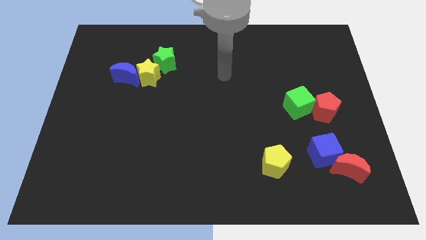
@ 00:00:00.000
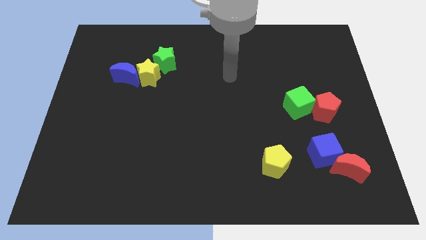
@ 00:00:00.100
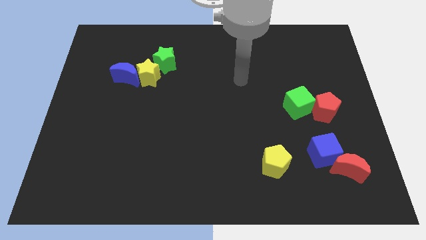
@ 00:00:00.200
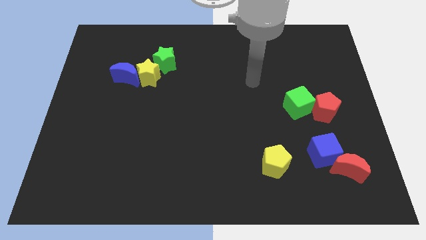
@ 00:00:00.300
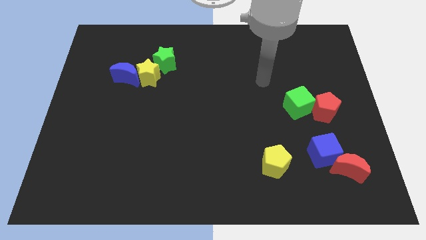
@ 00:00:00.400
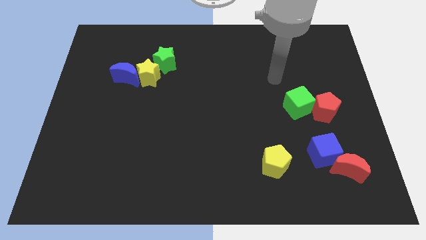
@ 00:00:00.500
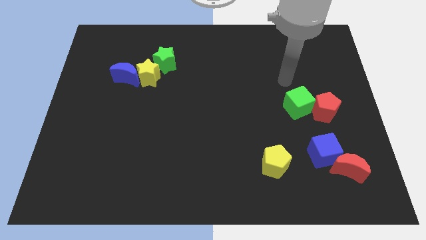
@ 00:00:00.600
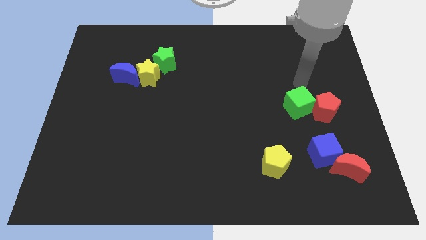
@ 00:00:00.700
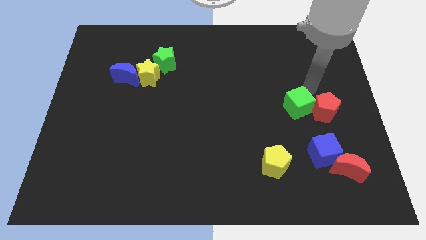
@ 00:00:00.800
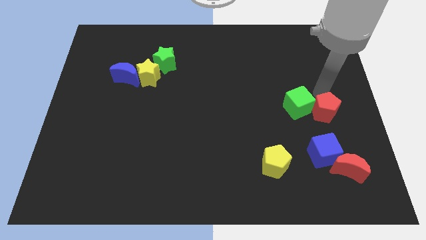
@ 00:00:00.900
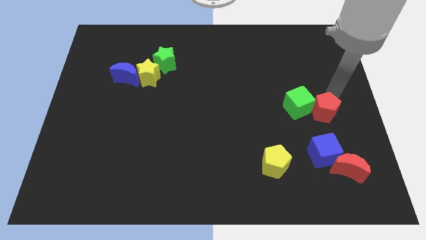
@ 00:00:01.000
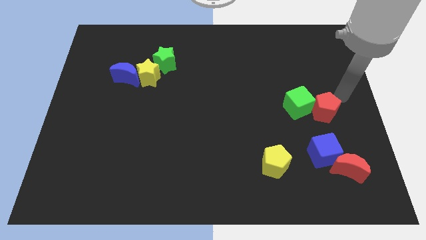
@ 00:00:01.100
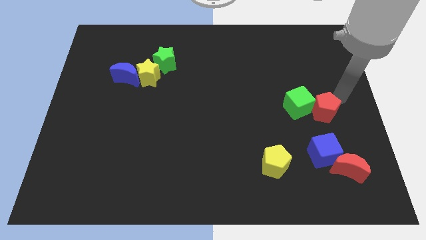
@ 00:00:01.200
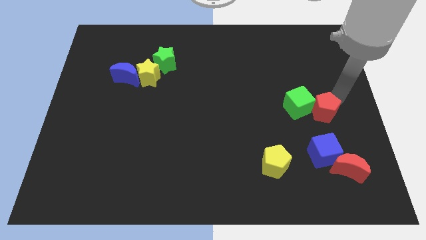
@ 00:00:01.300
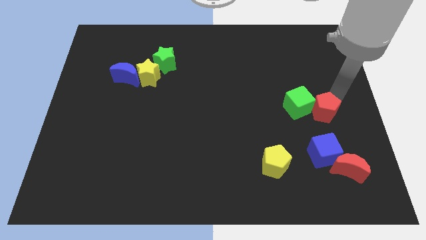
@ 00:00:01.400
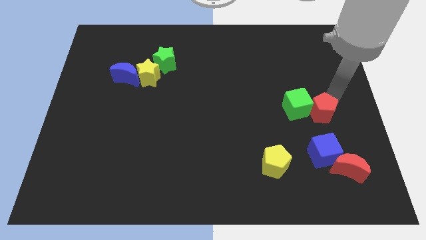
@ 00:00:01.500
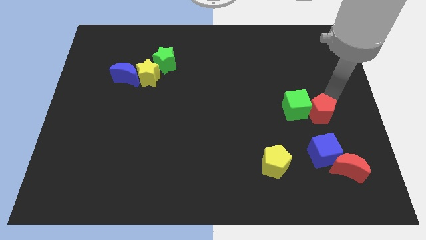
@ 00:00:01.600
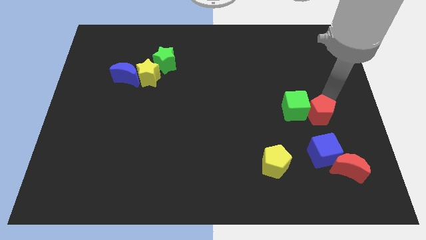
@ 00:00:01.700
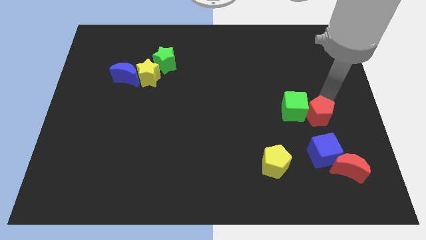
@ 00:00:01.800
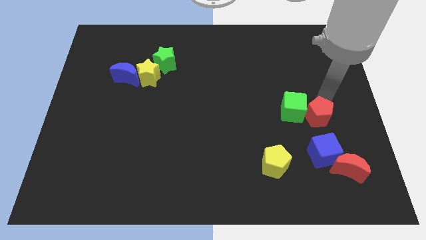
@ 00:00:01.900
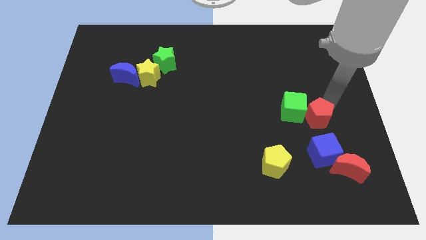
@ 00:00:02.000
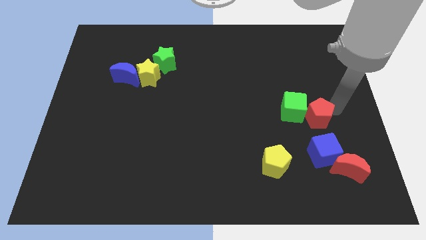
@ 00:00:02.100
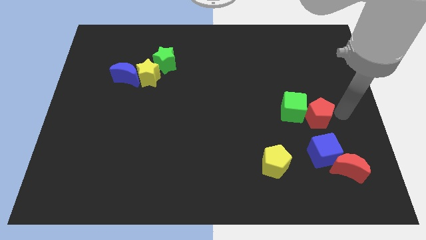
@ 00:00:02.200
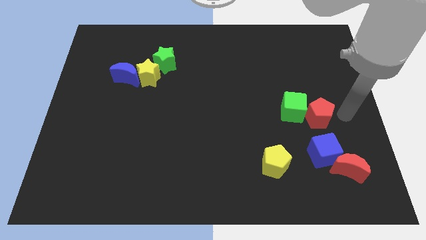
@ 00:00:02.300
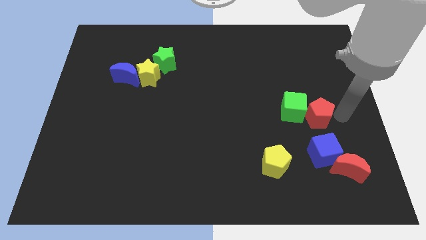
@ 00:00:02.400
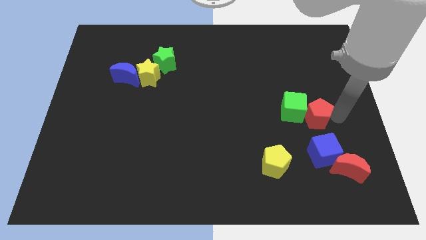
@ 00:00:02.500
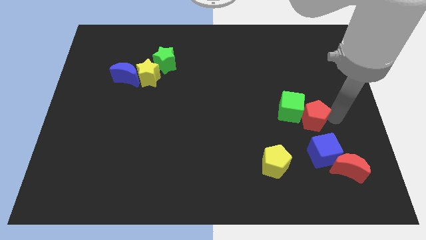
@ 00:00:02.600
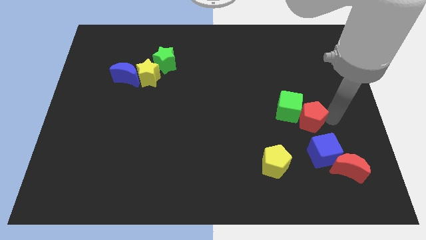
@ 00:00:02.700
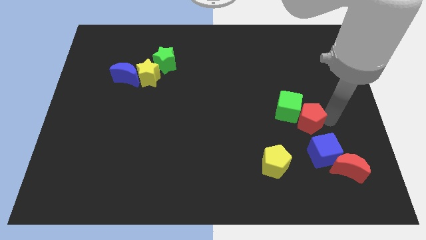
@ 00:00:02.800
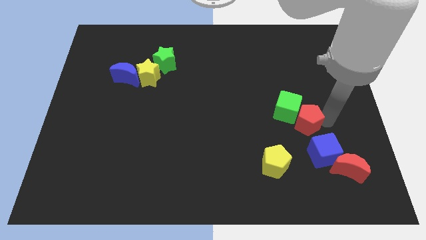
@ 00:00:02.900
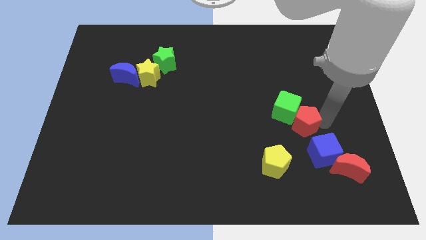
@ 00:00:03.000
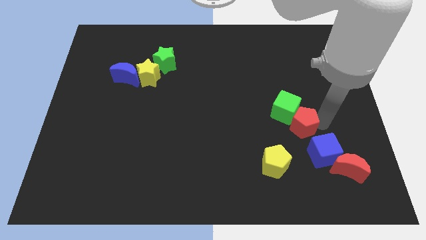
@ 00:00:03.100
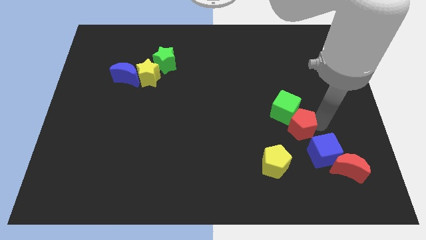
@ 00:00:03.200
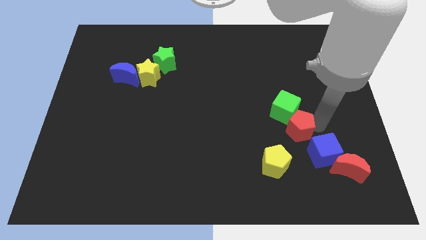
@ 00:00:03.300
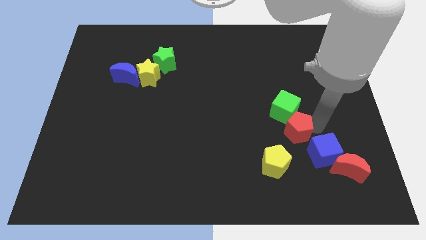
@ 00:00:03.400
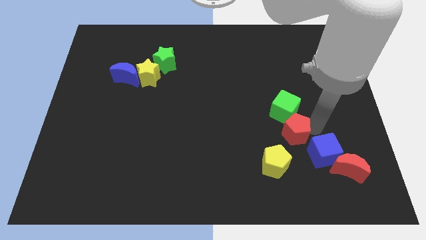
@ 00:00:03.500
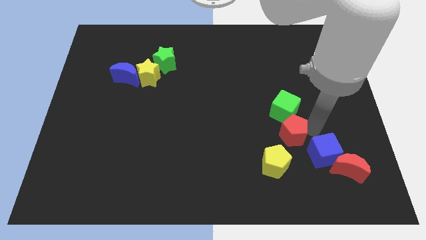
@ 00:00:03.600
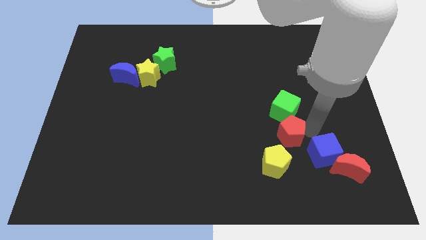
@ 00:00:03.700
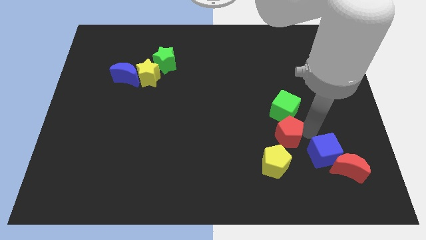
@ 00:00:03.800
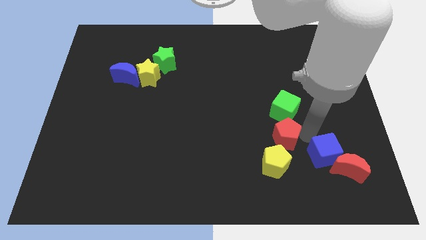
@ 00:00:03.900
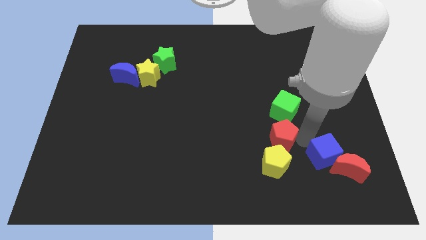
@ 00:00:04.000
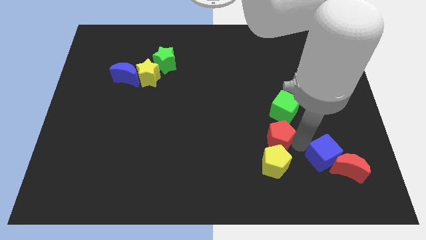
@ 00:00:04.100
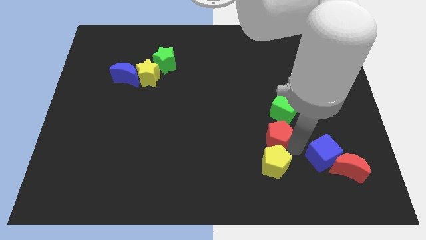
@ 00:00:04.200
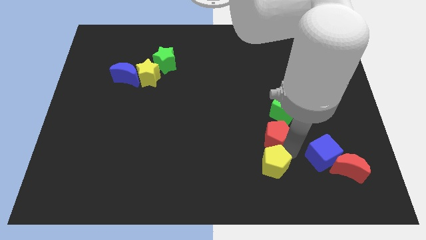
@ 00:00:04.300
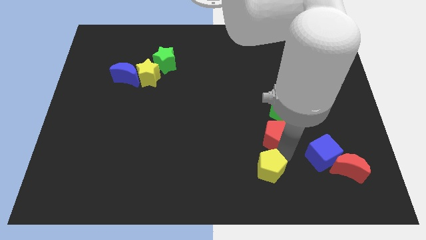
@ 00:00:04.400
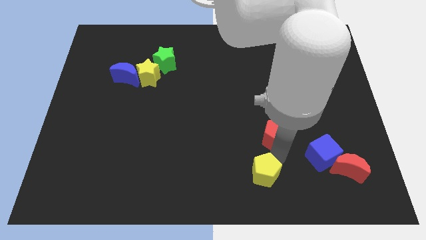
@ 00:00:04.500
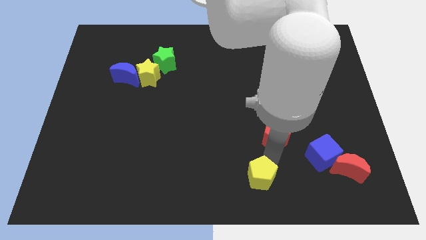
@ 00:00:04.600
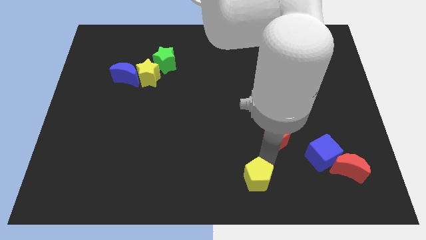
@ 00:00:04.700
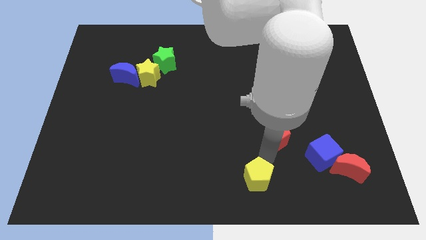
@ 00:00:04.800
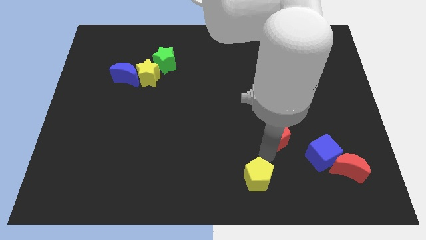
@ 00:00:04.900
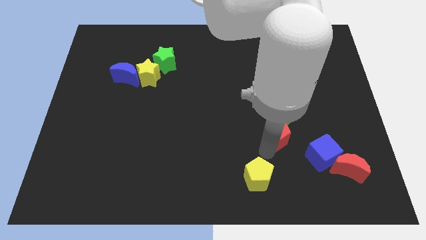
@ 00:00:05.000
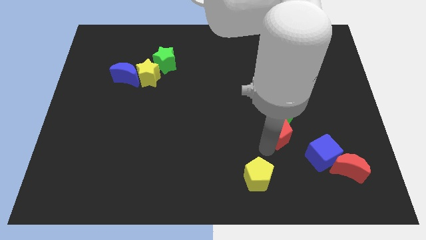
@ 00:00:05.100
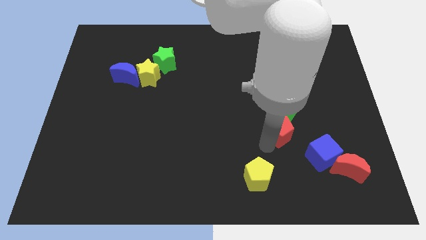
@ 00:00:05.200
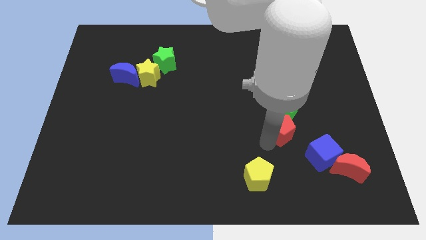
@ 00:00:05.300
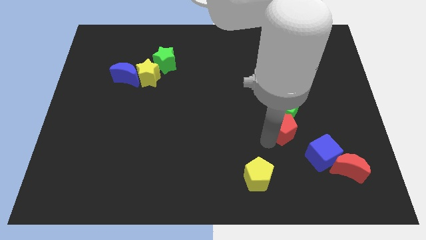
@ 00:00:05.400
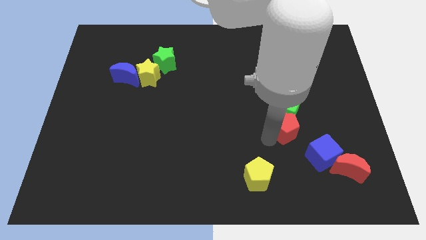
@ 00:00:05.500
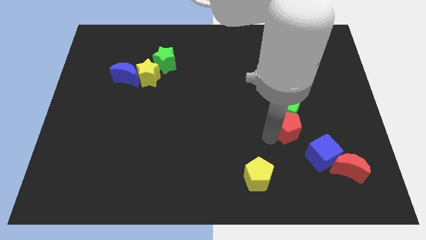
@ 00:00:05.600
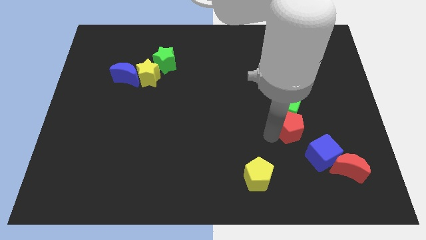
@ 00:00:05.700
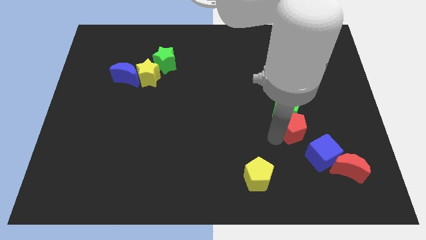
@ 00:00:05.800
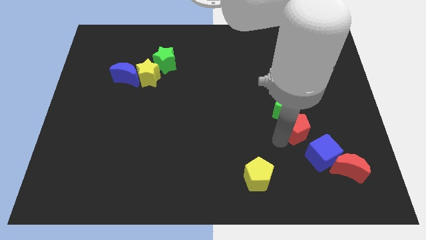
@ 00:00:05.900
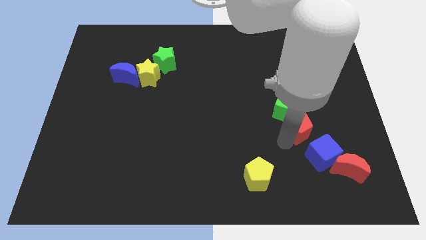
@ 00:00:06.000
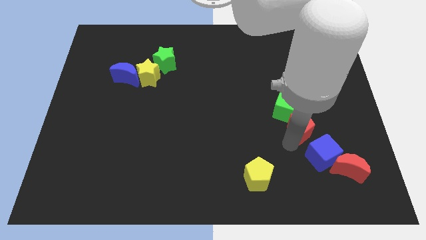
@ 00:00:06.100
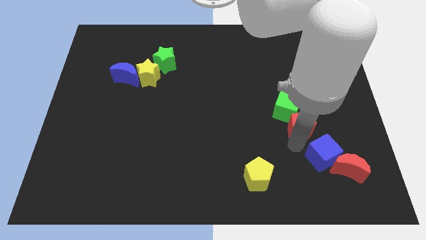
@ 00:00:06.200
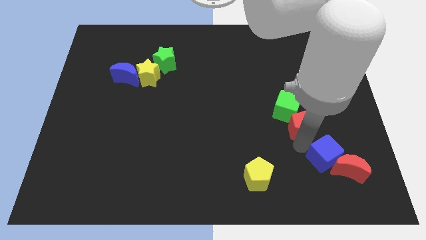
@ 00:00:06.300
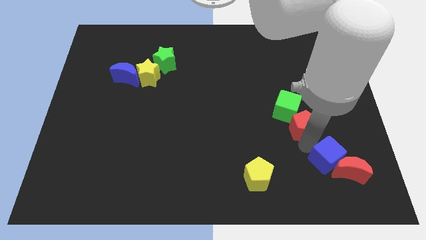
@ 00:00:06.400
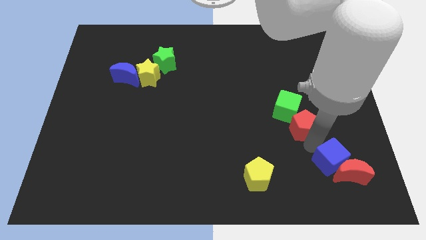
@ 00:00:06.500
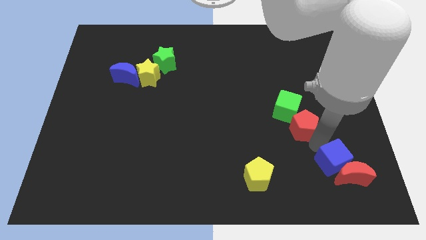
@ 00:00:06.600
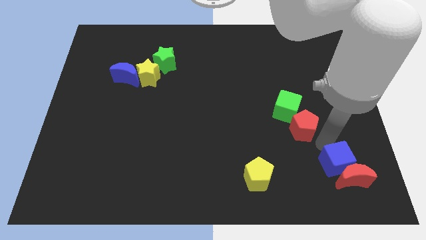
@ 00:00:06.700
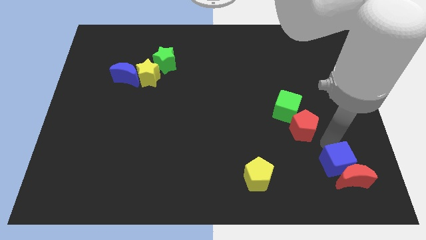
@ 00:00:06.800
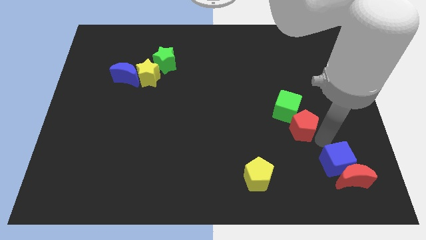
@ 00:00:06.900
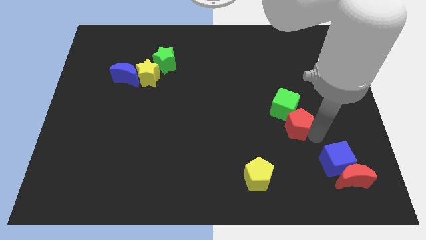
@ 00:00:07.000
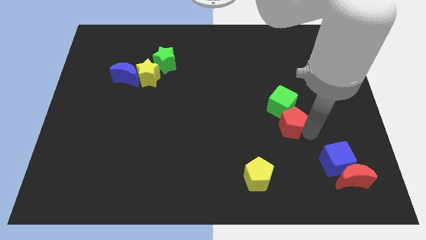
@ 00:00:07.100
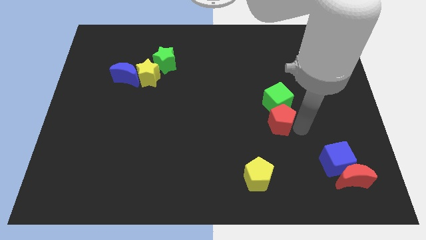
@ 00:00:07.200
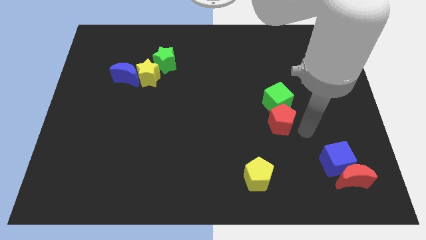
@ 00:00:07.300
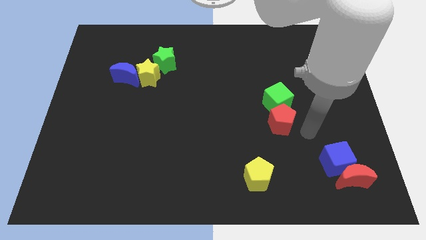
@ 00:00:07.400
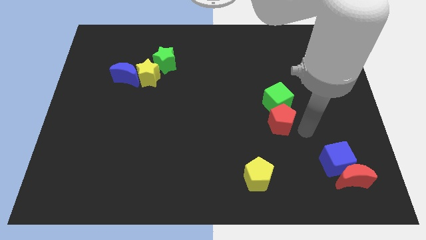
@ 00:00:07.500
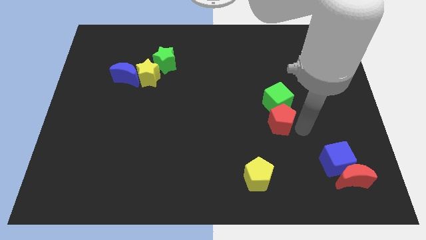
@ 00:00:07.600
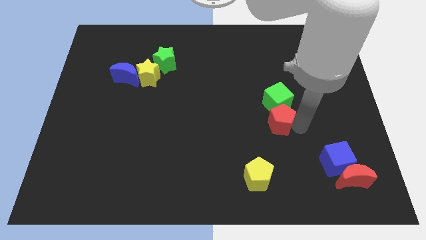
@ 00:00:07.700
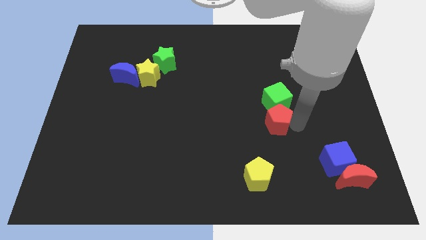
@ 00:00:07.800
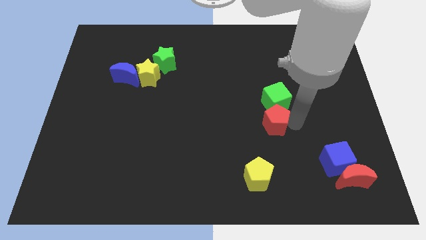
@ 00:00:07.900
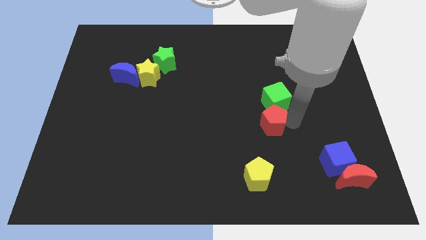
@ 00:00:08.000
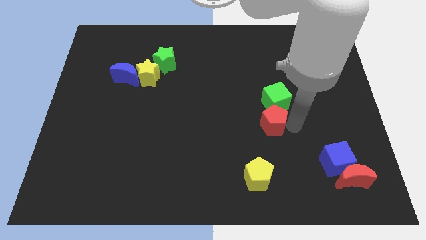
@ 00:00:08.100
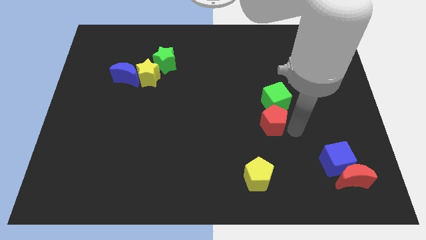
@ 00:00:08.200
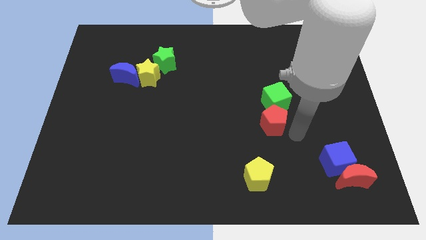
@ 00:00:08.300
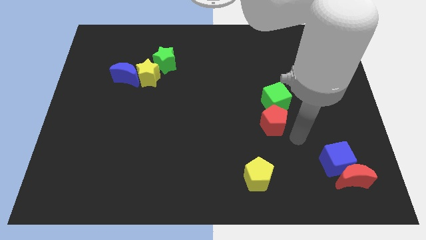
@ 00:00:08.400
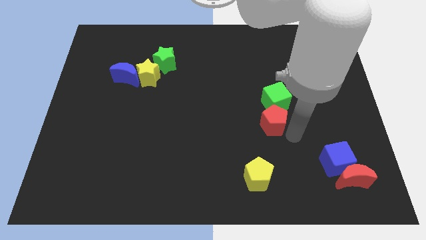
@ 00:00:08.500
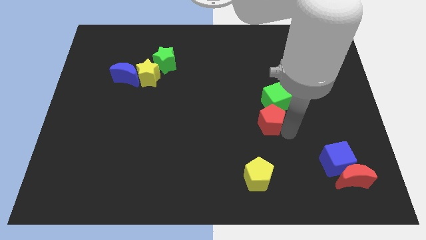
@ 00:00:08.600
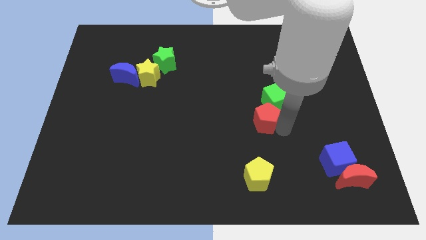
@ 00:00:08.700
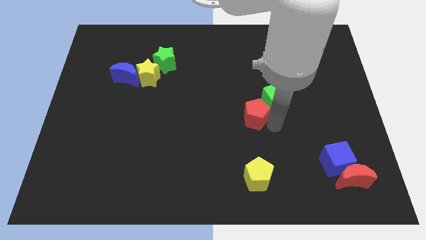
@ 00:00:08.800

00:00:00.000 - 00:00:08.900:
put the red pentagon to the middle
